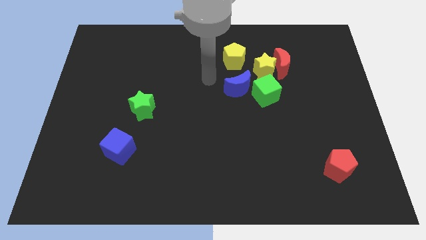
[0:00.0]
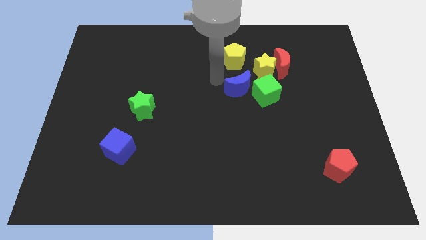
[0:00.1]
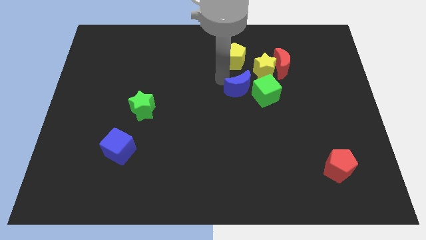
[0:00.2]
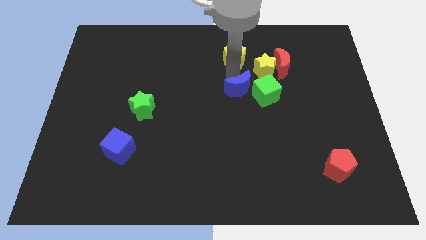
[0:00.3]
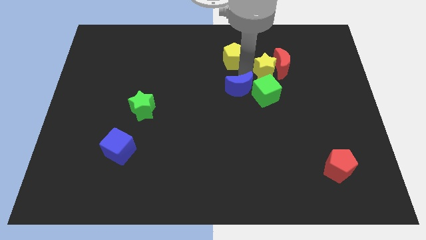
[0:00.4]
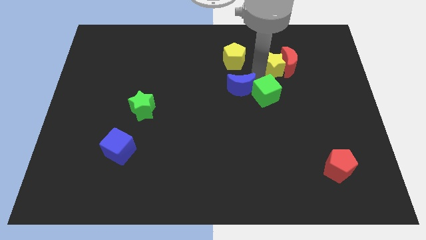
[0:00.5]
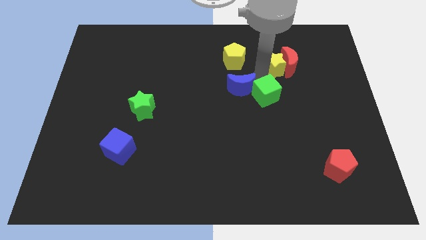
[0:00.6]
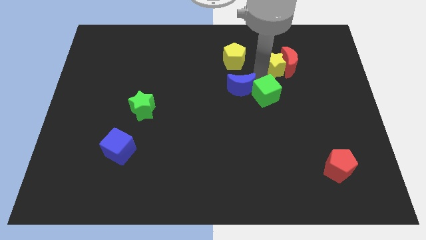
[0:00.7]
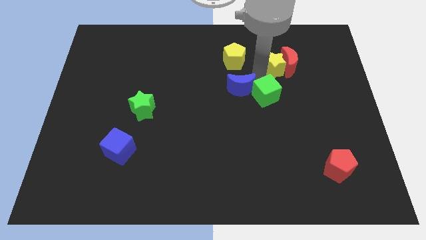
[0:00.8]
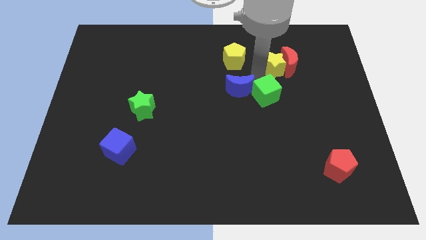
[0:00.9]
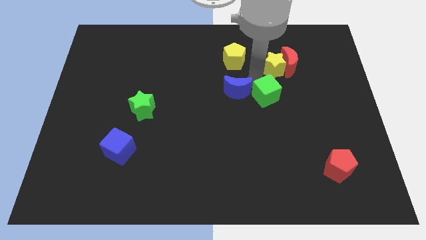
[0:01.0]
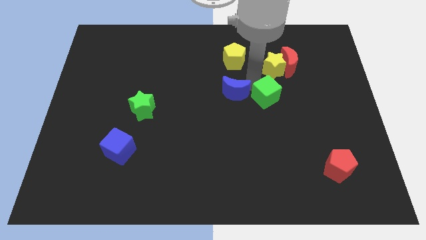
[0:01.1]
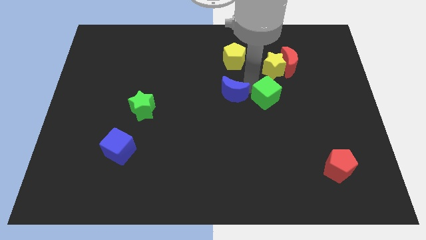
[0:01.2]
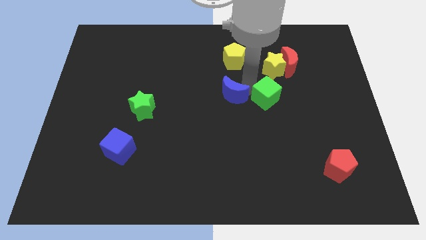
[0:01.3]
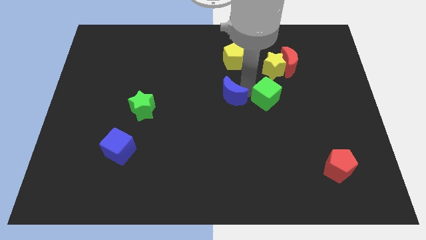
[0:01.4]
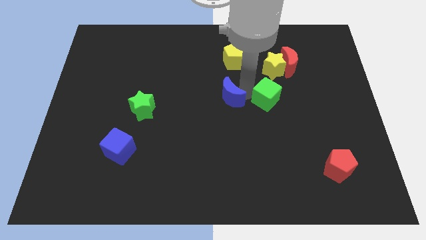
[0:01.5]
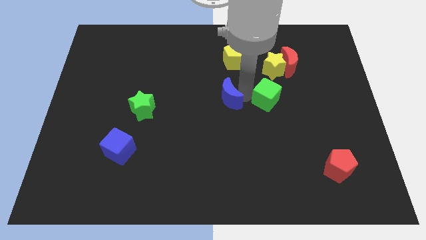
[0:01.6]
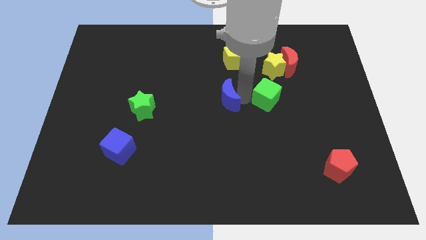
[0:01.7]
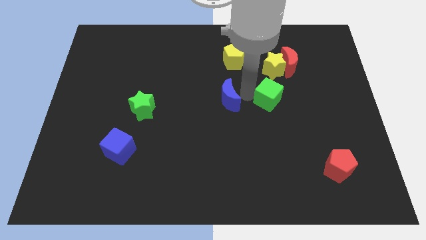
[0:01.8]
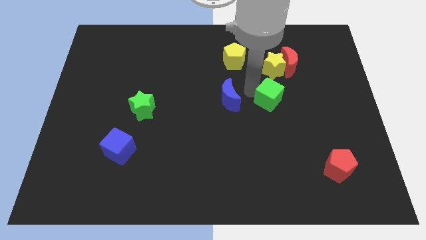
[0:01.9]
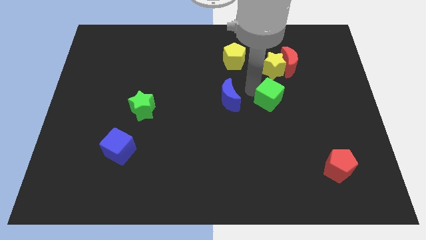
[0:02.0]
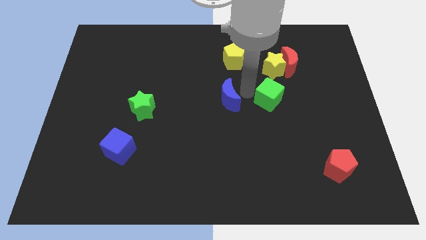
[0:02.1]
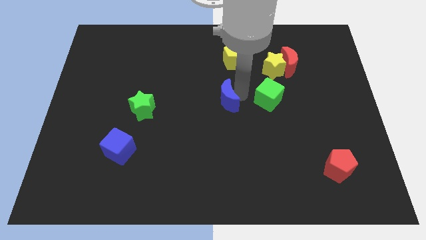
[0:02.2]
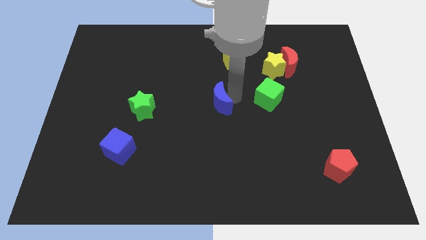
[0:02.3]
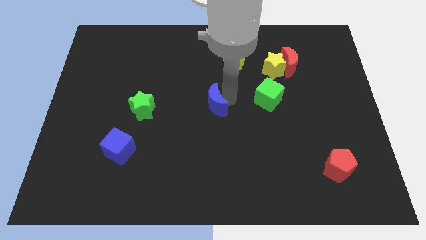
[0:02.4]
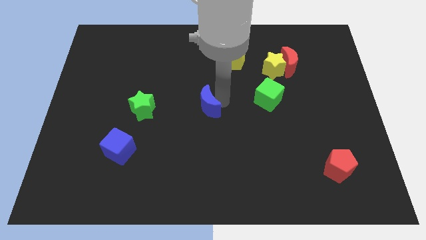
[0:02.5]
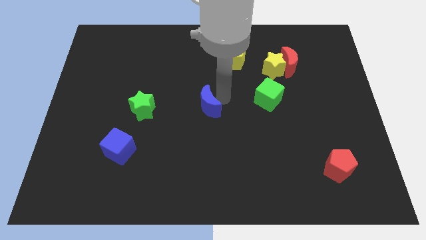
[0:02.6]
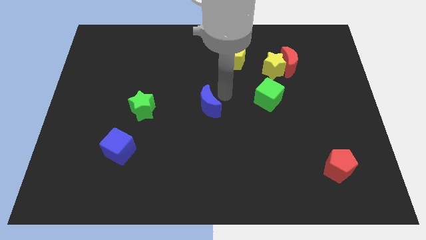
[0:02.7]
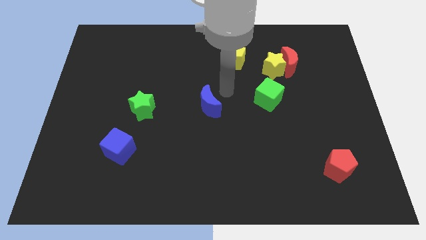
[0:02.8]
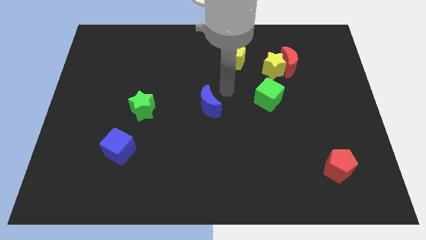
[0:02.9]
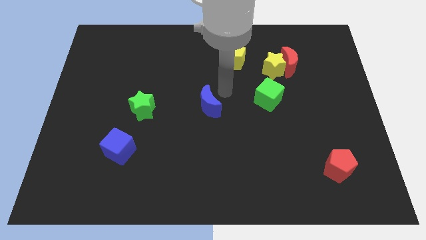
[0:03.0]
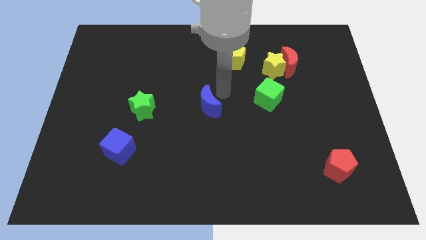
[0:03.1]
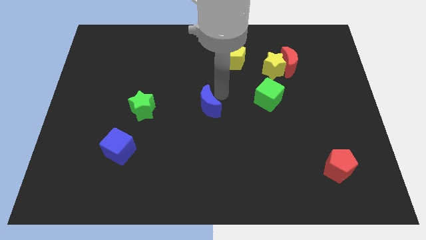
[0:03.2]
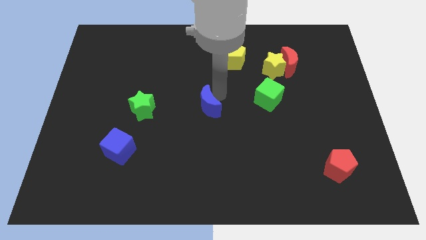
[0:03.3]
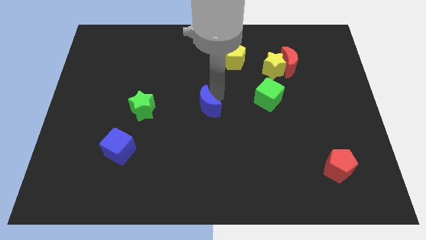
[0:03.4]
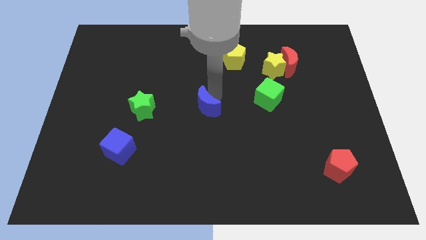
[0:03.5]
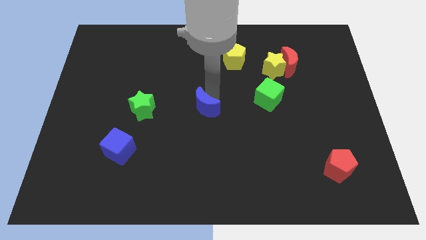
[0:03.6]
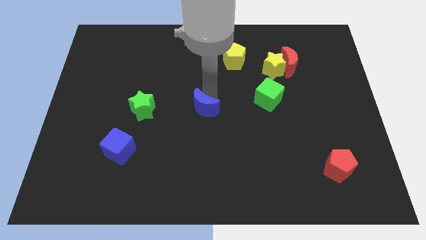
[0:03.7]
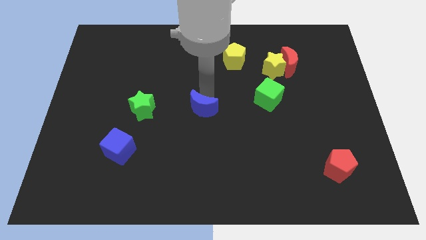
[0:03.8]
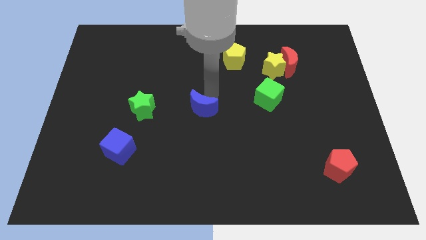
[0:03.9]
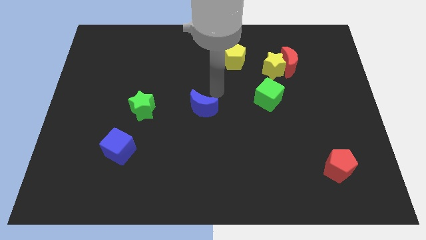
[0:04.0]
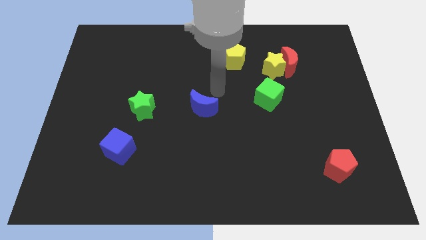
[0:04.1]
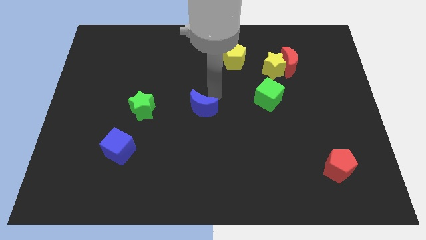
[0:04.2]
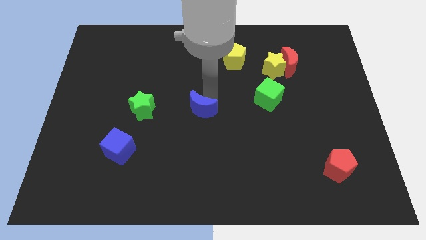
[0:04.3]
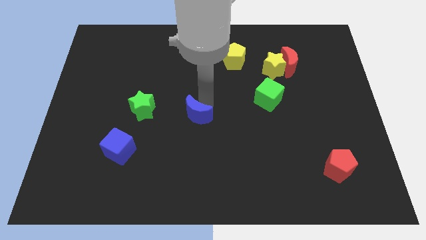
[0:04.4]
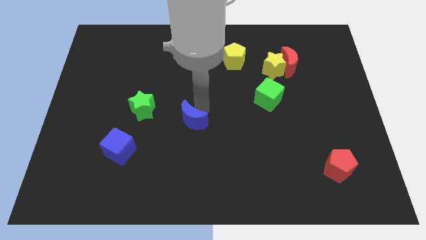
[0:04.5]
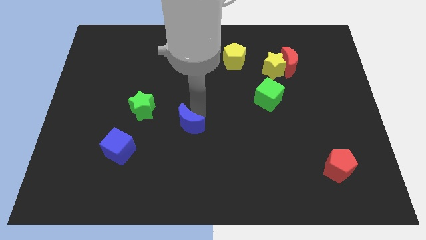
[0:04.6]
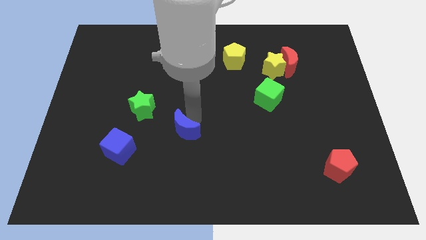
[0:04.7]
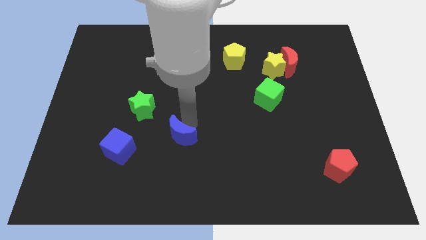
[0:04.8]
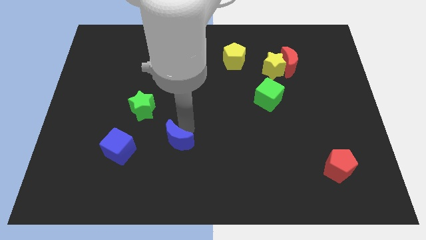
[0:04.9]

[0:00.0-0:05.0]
push the blue moon downwards and left diagonally

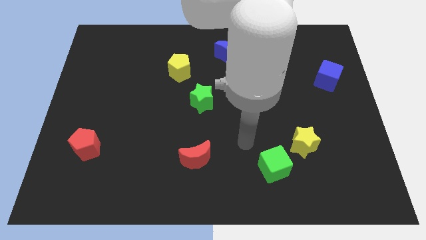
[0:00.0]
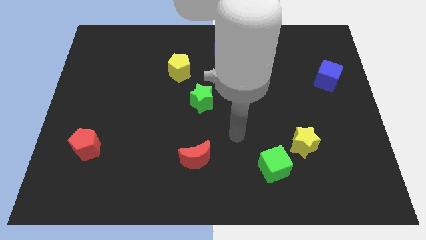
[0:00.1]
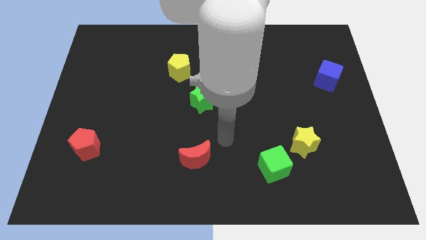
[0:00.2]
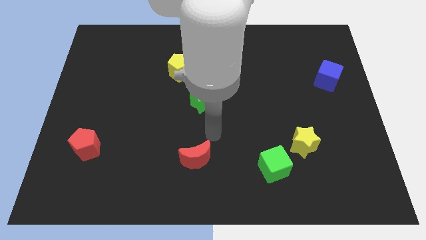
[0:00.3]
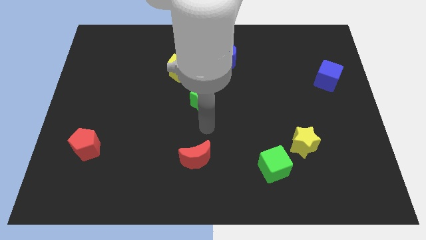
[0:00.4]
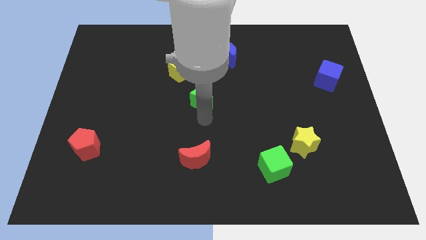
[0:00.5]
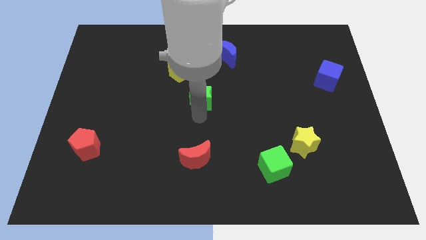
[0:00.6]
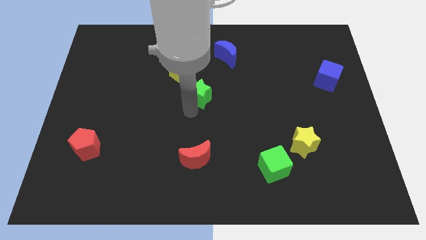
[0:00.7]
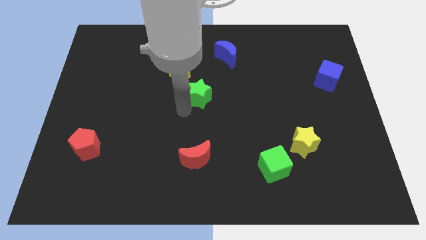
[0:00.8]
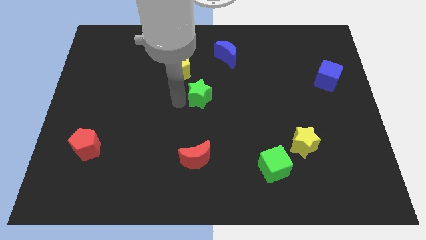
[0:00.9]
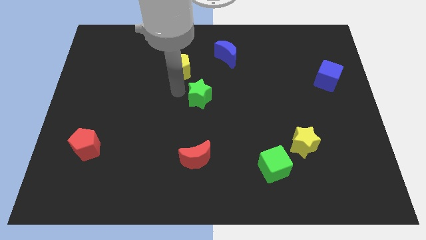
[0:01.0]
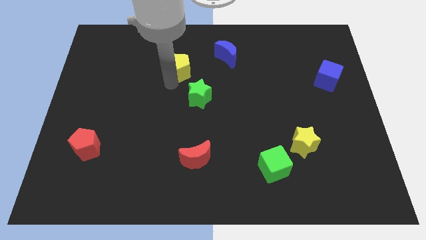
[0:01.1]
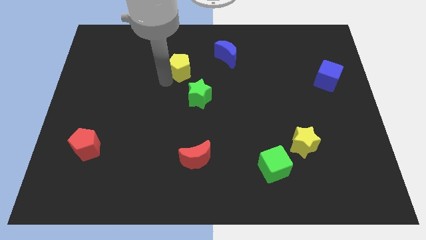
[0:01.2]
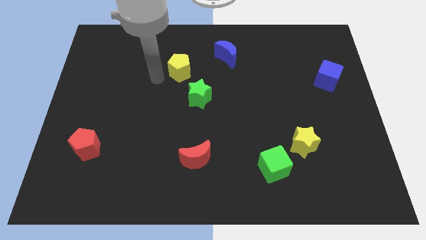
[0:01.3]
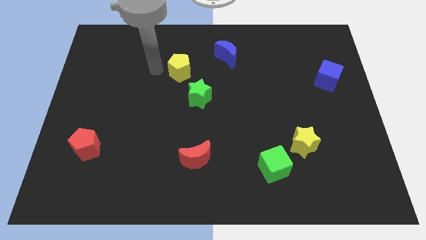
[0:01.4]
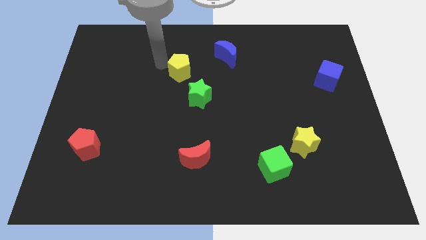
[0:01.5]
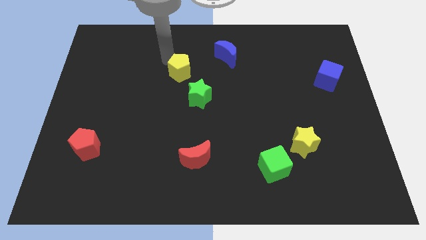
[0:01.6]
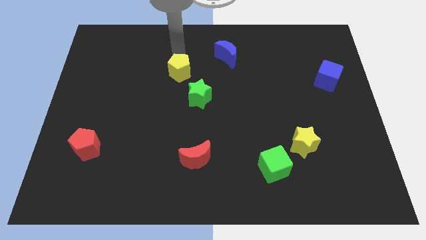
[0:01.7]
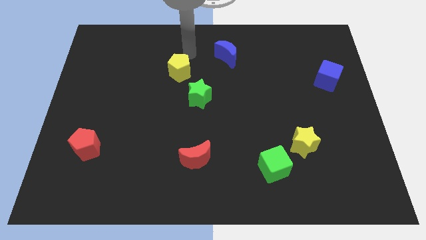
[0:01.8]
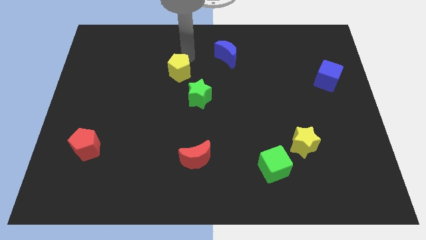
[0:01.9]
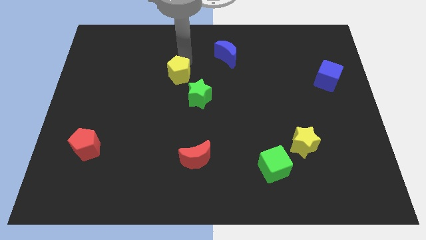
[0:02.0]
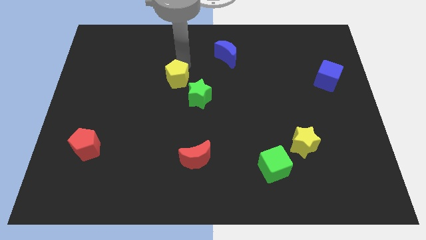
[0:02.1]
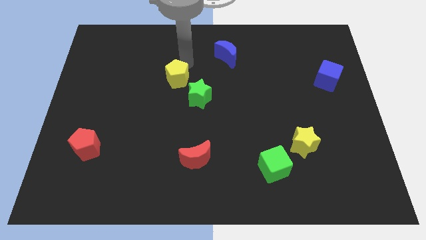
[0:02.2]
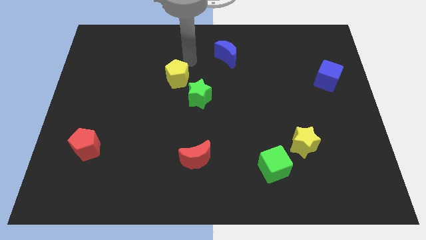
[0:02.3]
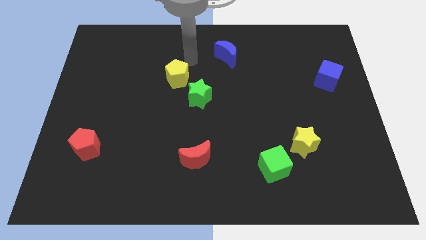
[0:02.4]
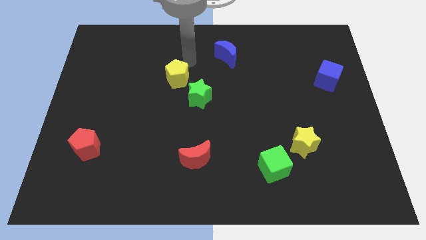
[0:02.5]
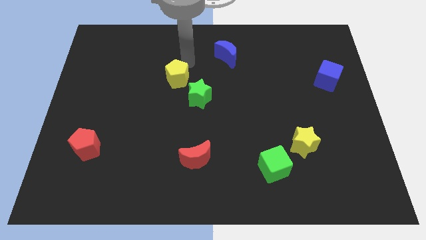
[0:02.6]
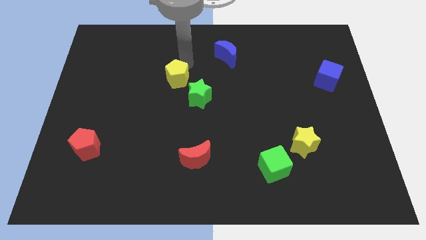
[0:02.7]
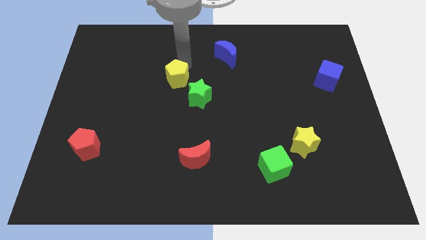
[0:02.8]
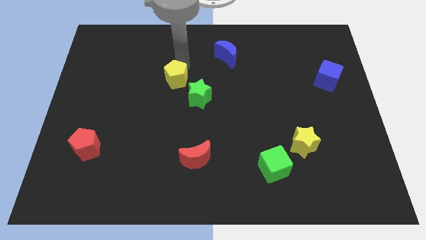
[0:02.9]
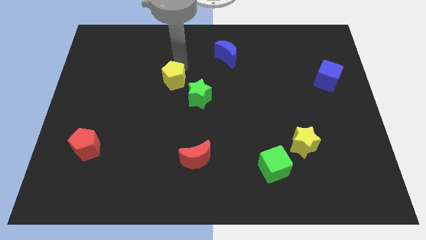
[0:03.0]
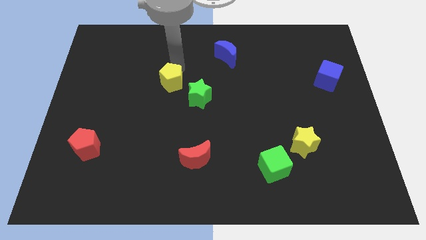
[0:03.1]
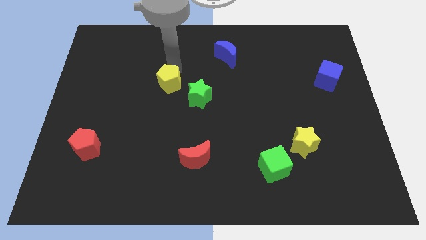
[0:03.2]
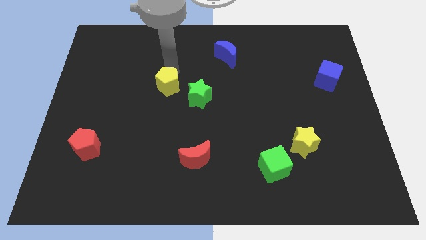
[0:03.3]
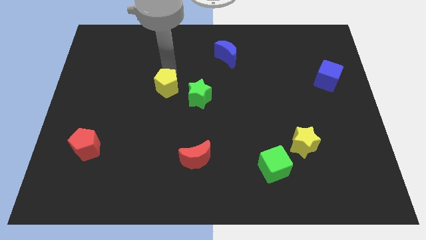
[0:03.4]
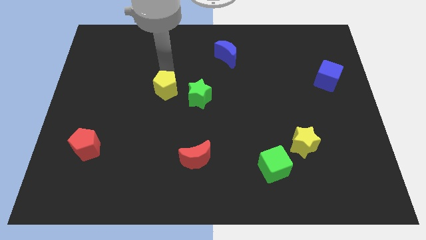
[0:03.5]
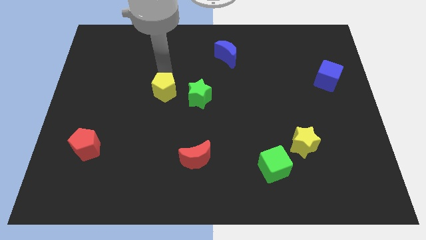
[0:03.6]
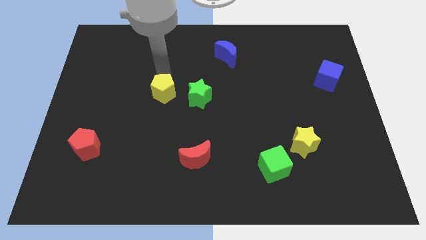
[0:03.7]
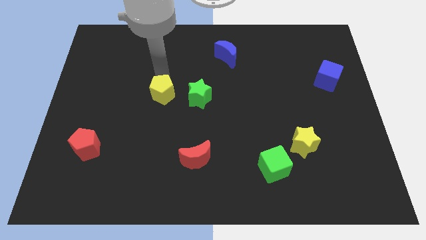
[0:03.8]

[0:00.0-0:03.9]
slightly move the yellow pentagon down
